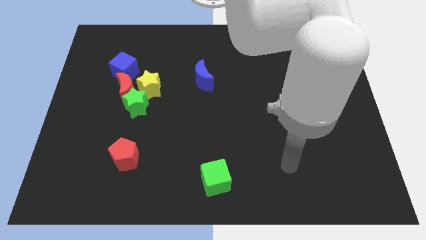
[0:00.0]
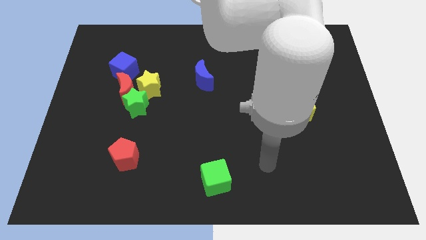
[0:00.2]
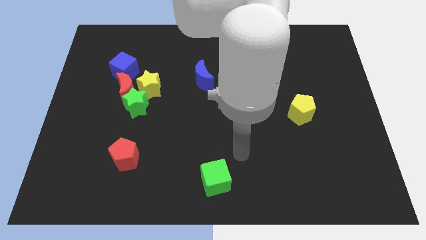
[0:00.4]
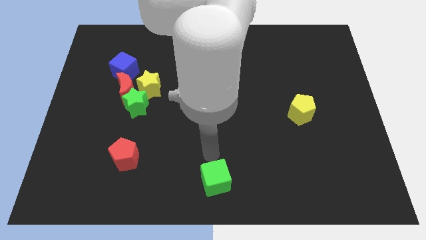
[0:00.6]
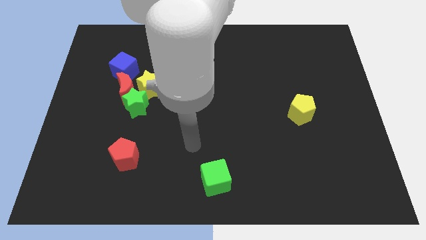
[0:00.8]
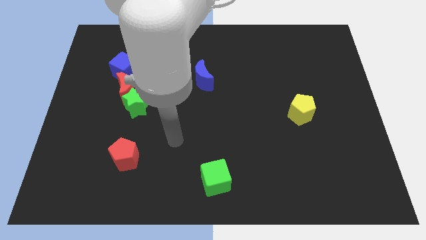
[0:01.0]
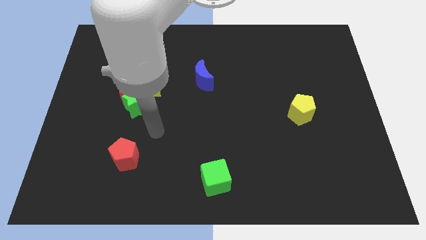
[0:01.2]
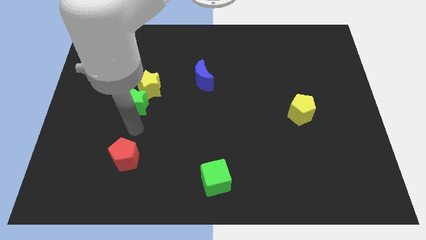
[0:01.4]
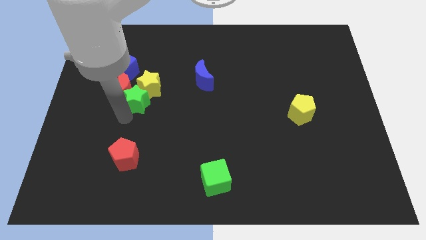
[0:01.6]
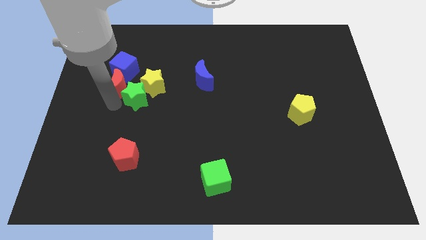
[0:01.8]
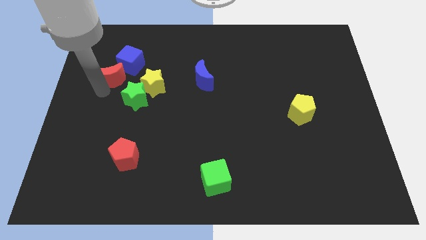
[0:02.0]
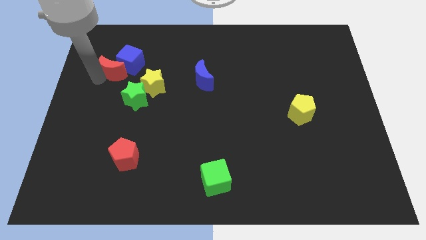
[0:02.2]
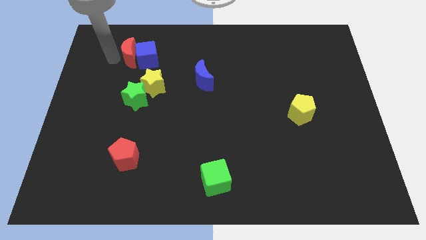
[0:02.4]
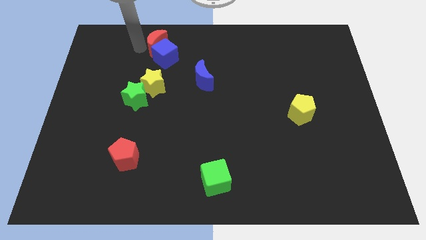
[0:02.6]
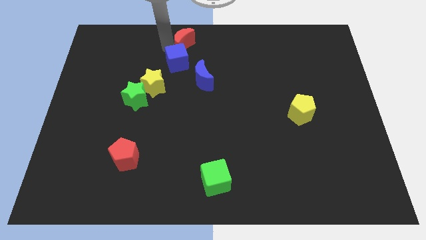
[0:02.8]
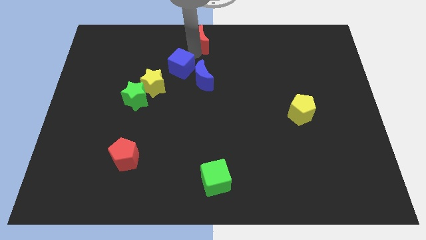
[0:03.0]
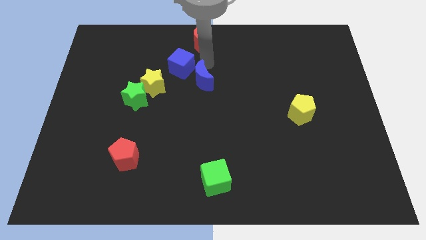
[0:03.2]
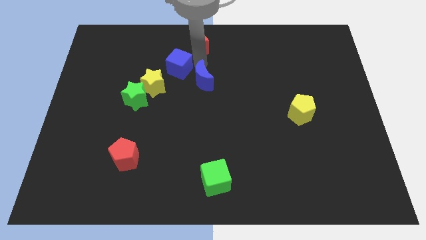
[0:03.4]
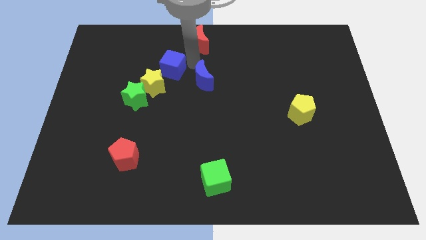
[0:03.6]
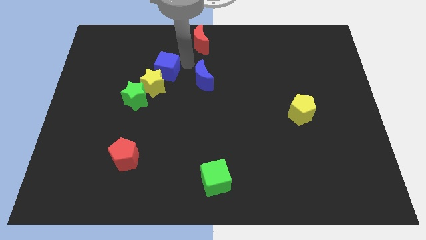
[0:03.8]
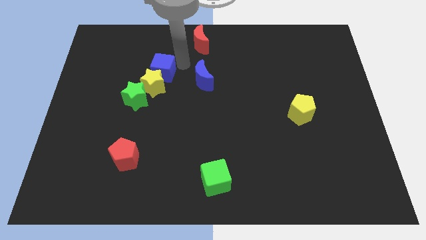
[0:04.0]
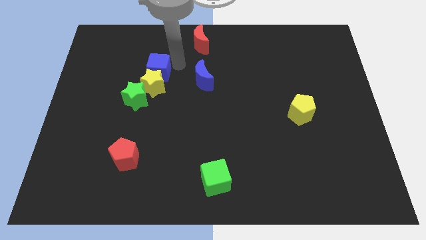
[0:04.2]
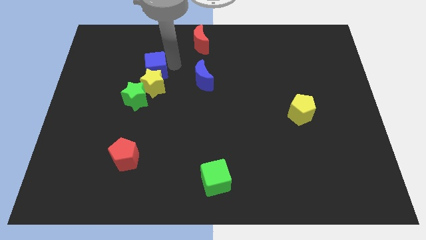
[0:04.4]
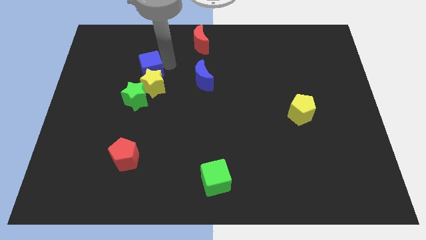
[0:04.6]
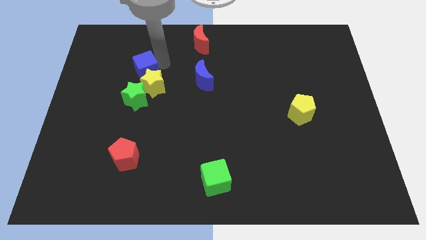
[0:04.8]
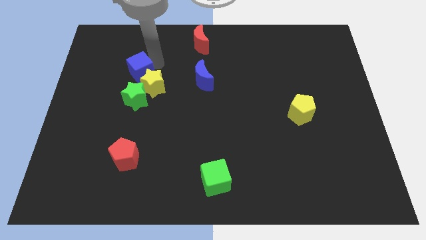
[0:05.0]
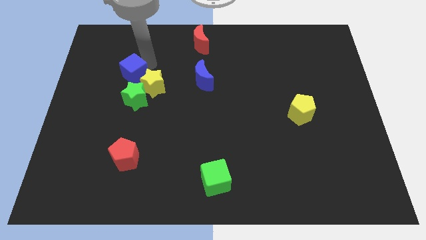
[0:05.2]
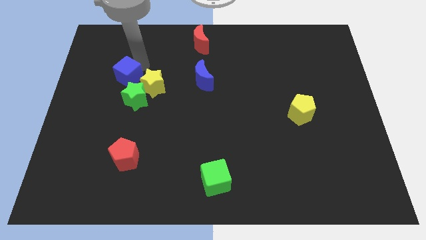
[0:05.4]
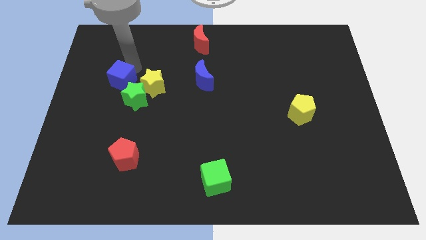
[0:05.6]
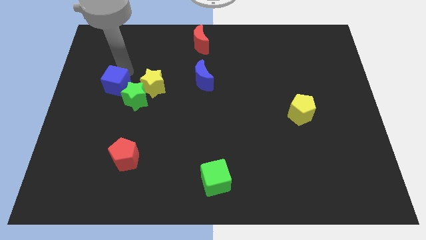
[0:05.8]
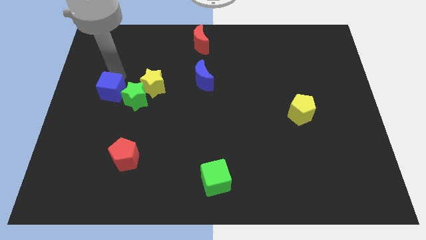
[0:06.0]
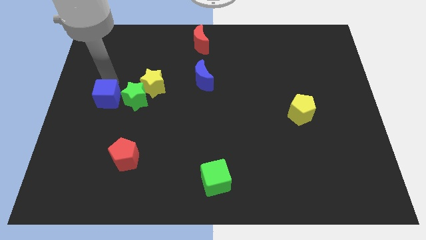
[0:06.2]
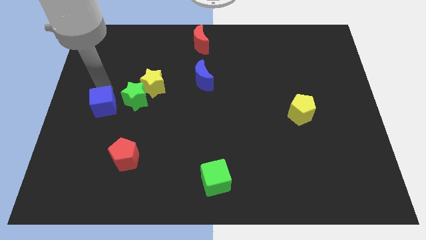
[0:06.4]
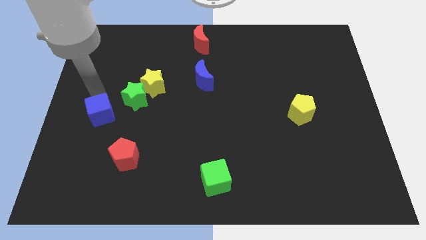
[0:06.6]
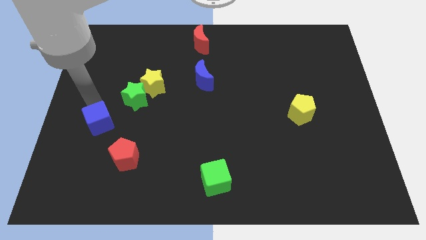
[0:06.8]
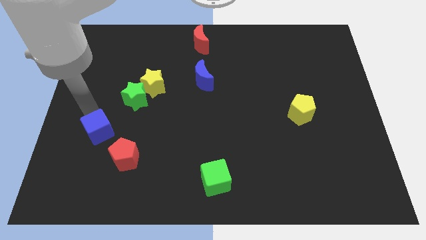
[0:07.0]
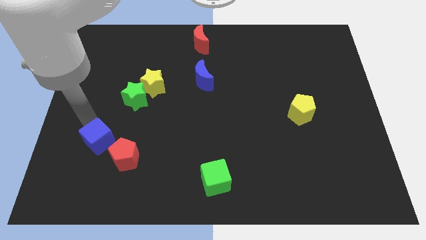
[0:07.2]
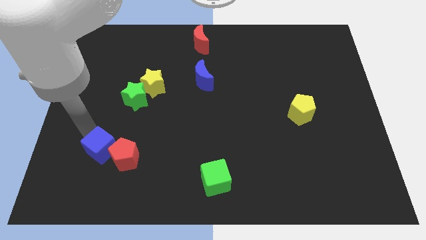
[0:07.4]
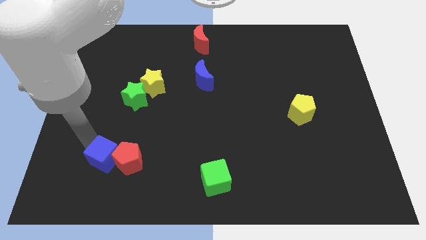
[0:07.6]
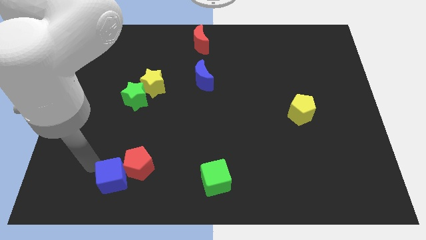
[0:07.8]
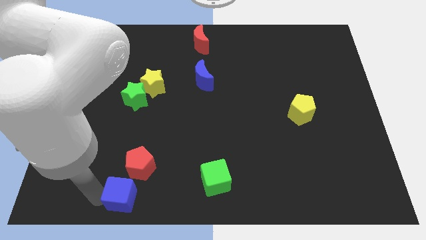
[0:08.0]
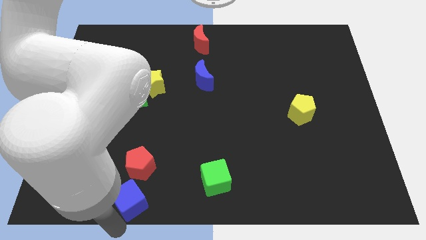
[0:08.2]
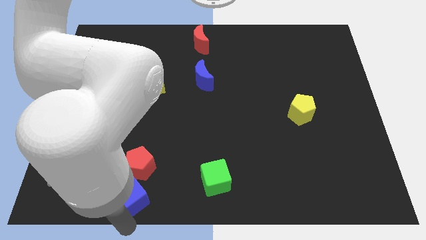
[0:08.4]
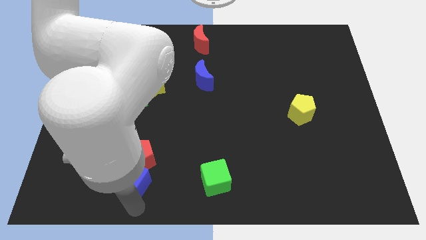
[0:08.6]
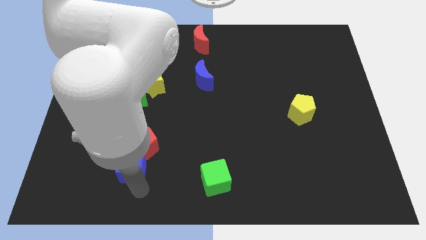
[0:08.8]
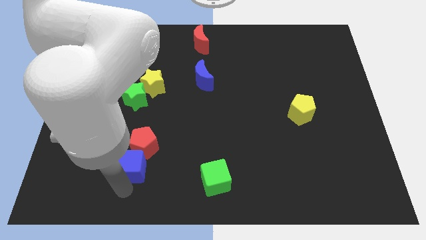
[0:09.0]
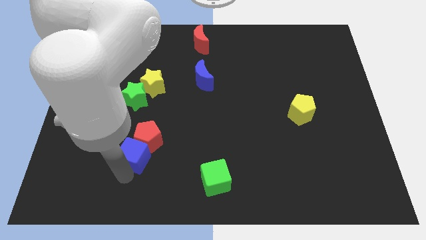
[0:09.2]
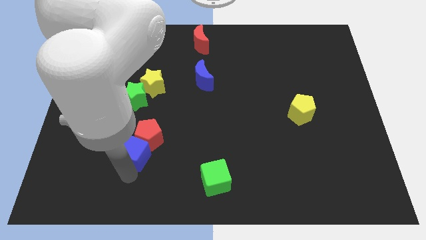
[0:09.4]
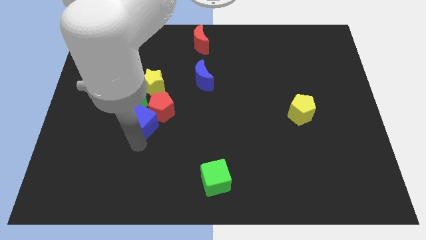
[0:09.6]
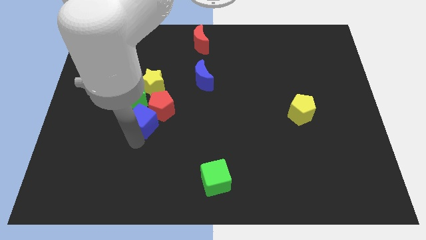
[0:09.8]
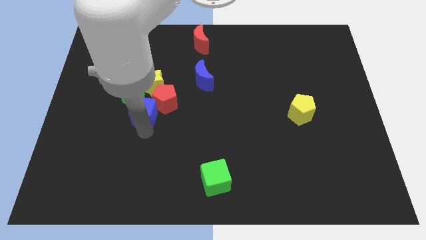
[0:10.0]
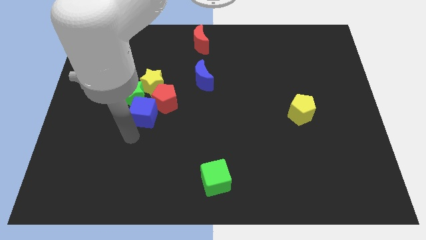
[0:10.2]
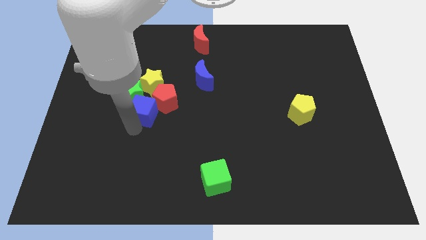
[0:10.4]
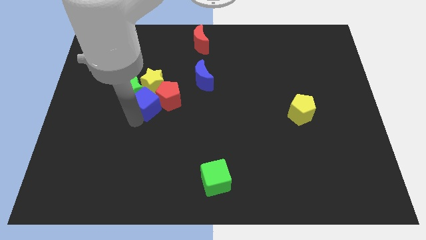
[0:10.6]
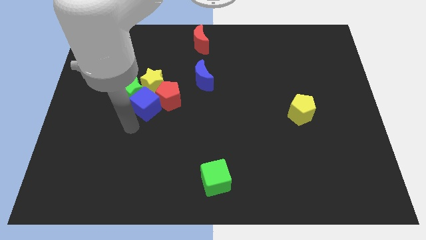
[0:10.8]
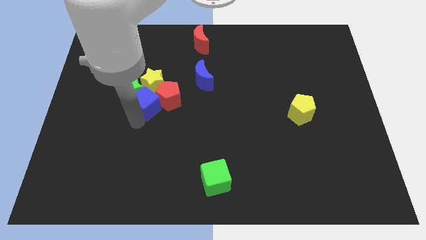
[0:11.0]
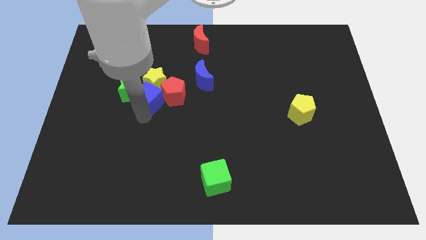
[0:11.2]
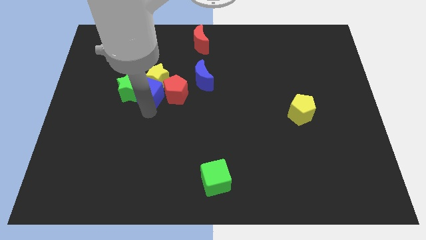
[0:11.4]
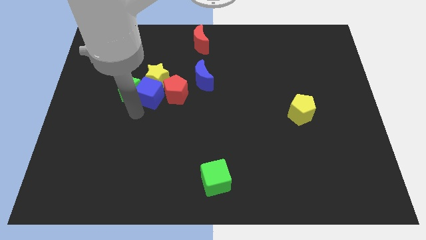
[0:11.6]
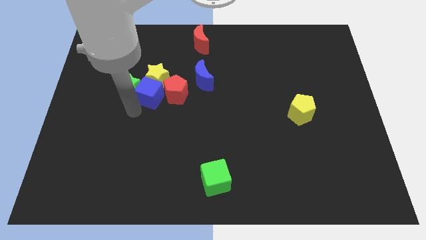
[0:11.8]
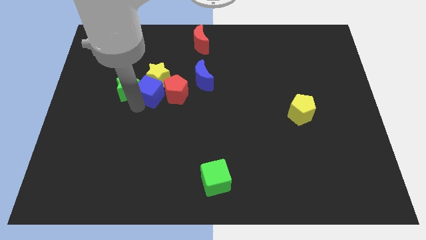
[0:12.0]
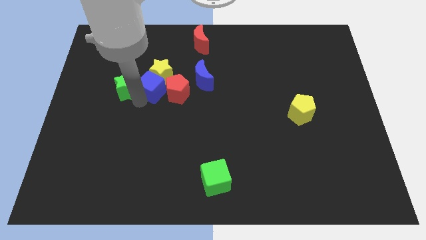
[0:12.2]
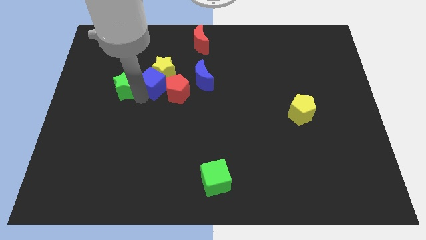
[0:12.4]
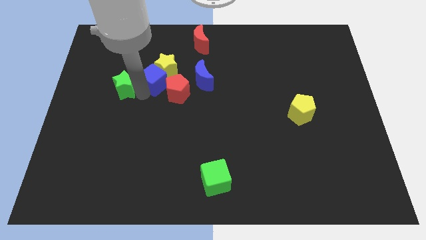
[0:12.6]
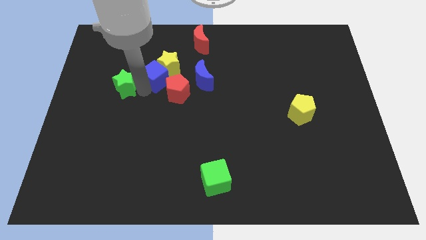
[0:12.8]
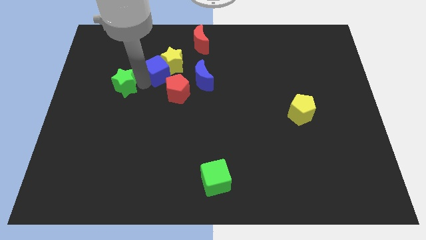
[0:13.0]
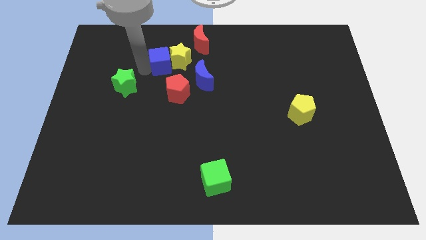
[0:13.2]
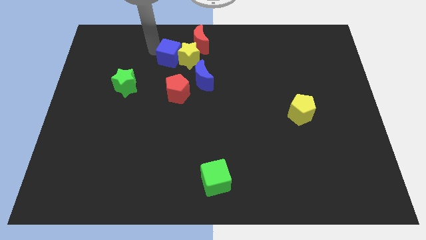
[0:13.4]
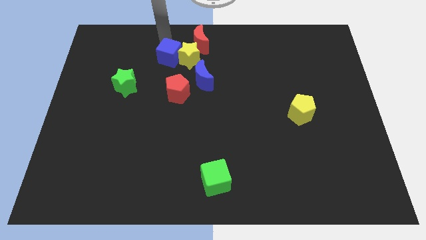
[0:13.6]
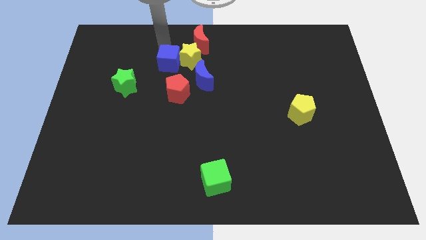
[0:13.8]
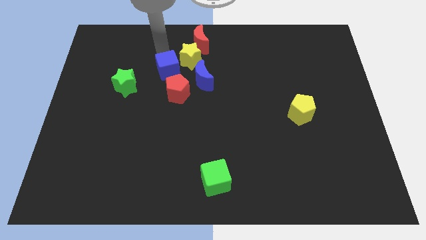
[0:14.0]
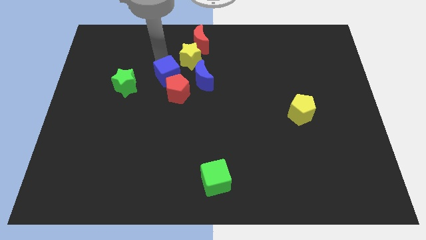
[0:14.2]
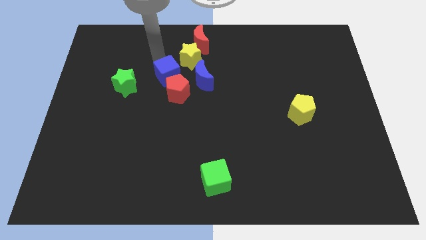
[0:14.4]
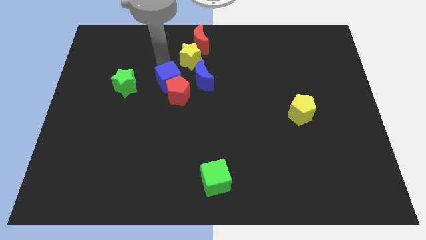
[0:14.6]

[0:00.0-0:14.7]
push the blue cube to the center of the board

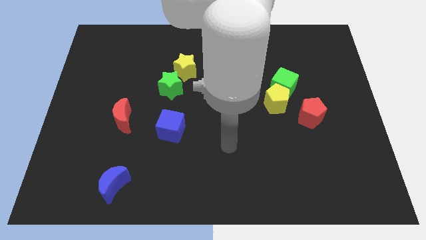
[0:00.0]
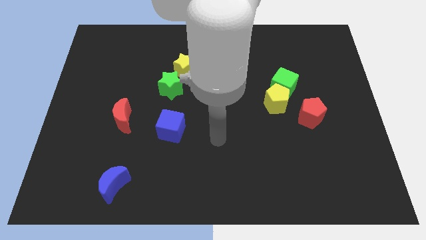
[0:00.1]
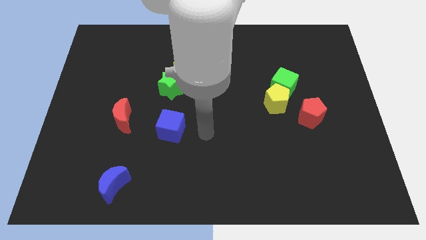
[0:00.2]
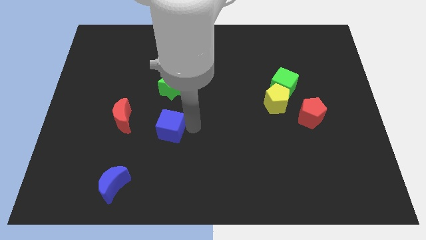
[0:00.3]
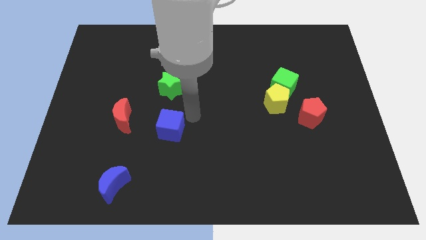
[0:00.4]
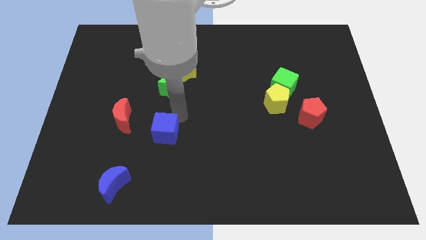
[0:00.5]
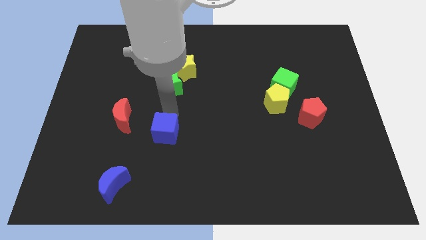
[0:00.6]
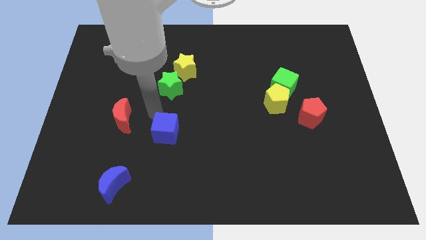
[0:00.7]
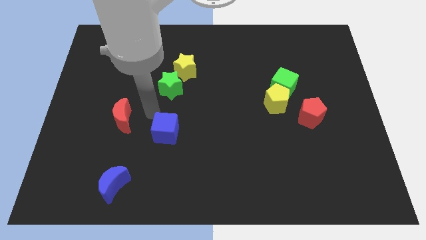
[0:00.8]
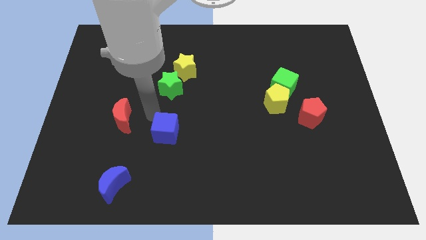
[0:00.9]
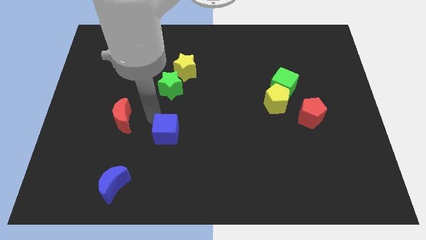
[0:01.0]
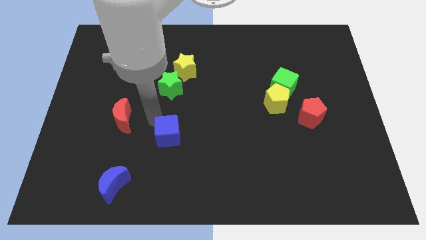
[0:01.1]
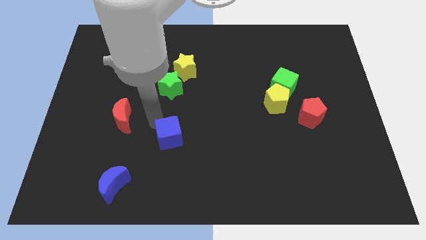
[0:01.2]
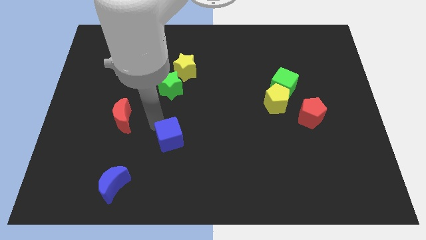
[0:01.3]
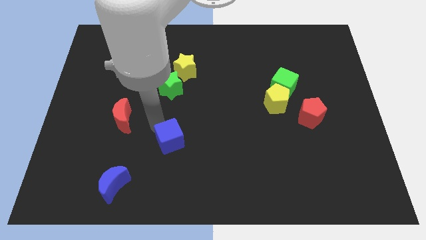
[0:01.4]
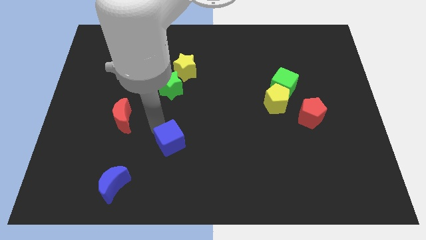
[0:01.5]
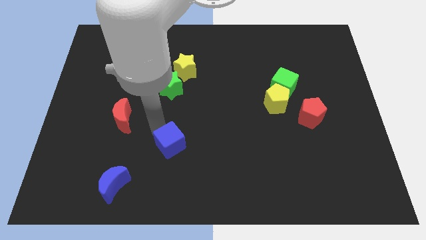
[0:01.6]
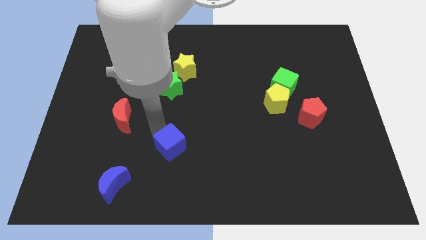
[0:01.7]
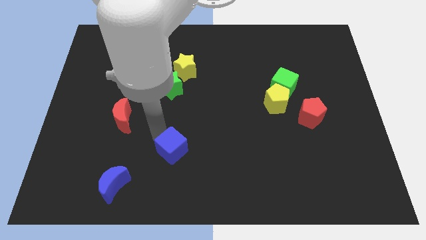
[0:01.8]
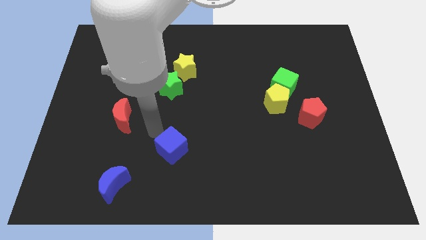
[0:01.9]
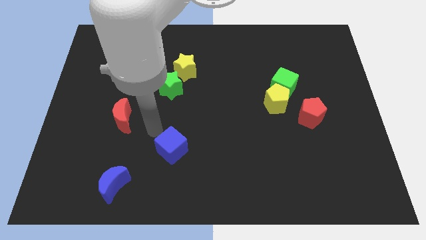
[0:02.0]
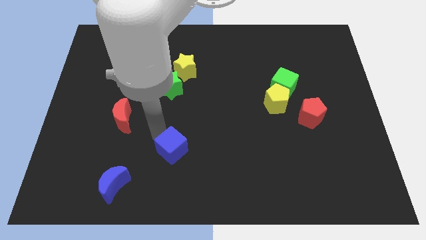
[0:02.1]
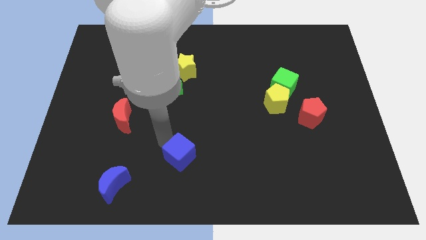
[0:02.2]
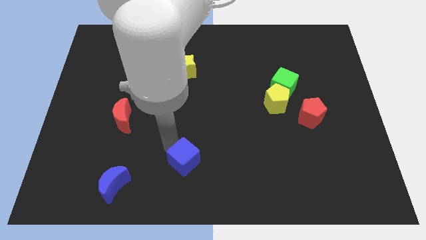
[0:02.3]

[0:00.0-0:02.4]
slide the blue cube to the bottom side
